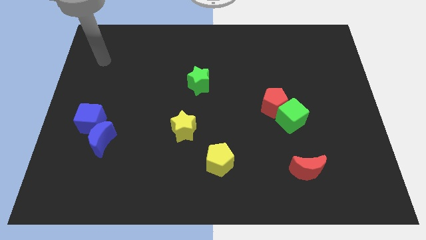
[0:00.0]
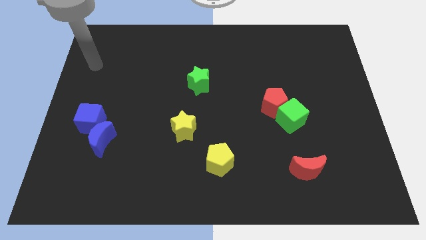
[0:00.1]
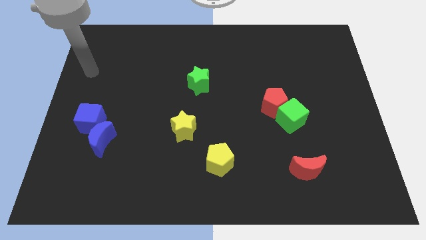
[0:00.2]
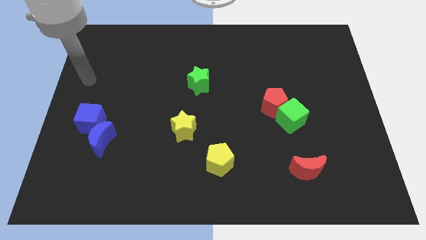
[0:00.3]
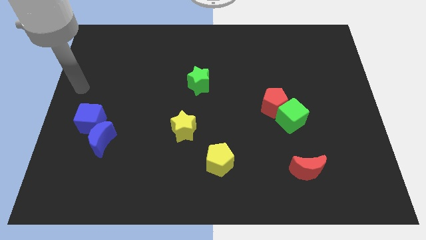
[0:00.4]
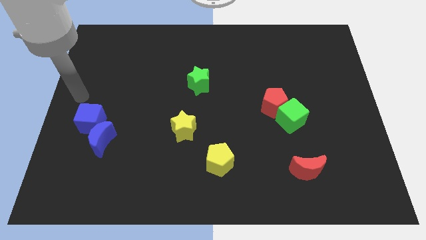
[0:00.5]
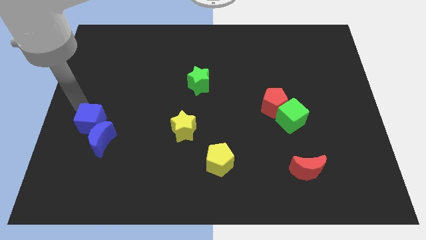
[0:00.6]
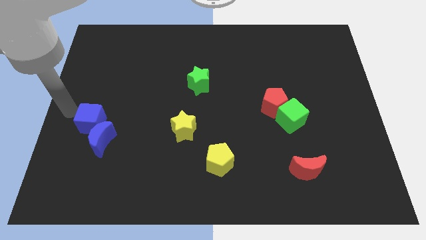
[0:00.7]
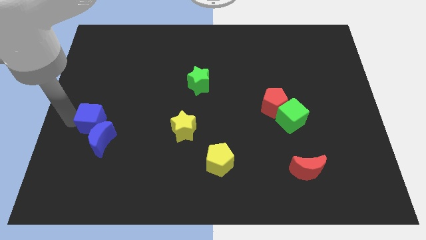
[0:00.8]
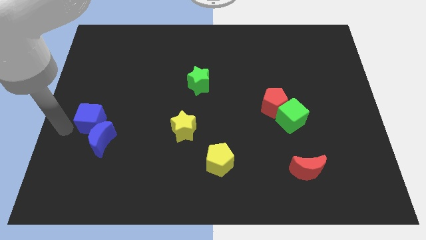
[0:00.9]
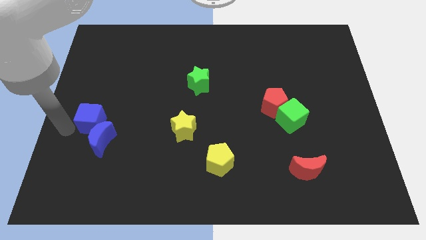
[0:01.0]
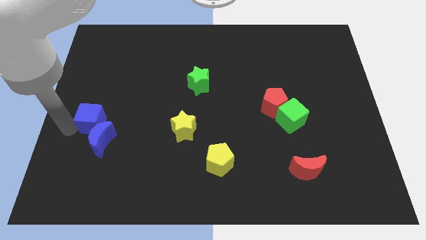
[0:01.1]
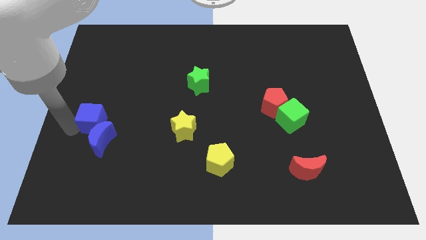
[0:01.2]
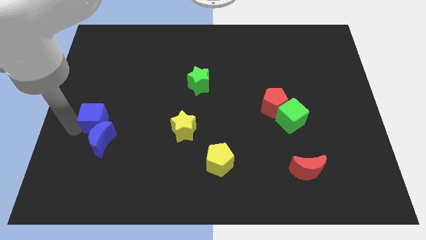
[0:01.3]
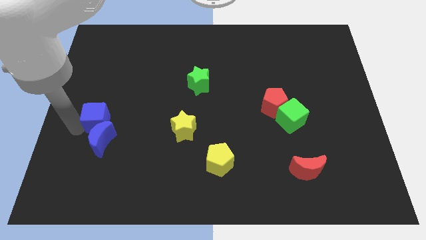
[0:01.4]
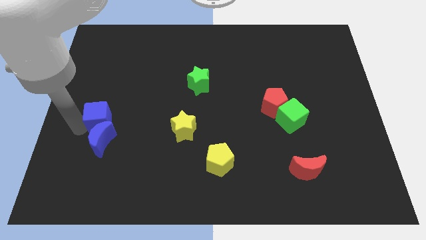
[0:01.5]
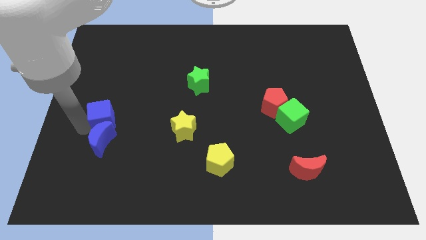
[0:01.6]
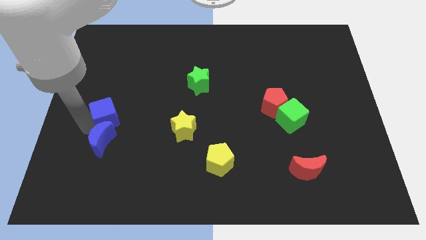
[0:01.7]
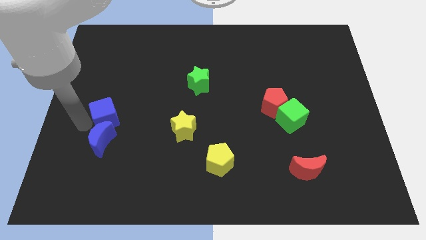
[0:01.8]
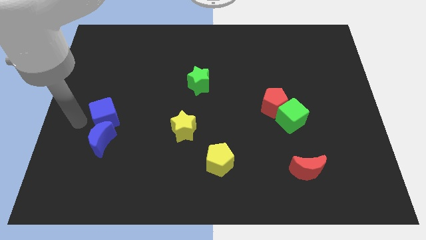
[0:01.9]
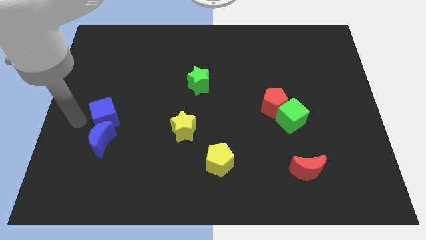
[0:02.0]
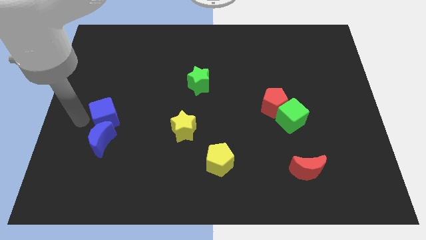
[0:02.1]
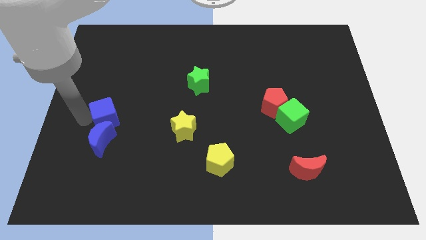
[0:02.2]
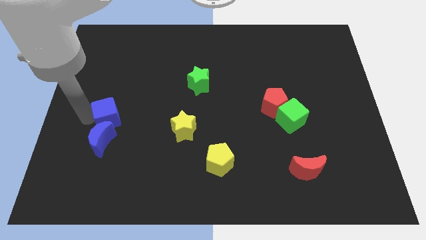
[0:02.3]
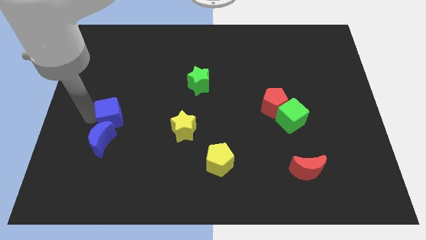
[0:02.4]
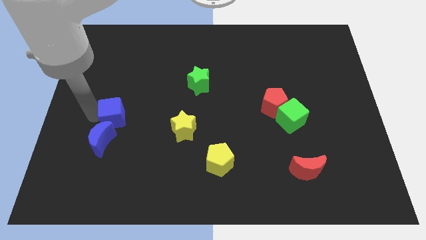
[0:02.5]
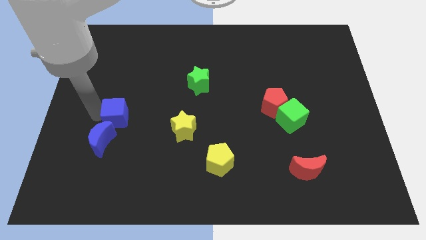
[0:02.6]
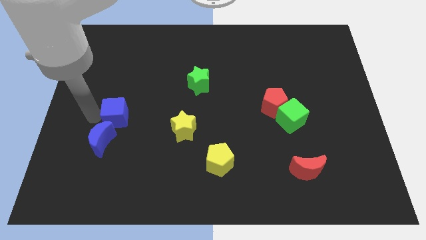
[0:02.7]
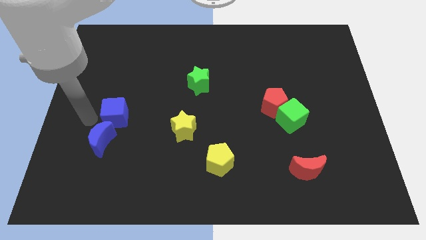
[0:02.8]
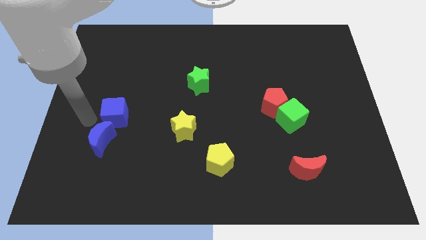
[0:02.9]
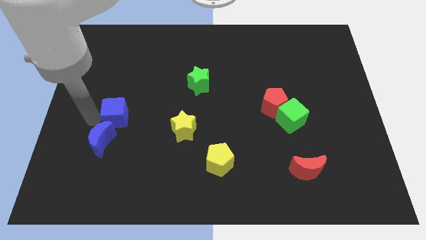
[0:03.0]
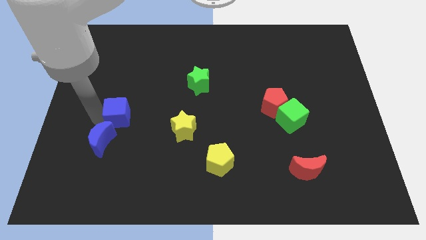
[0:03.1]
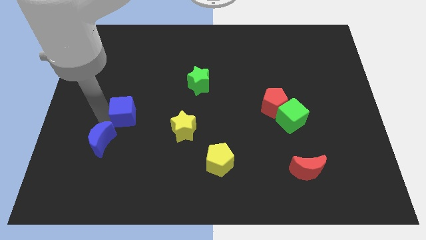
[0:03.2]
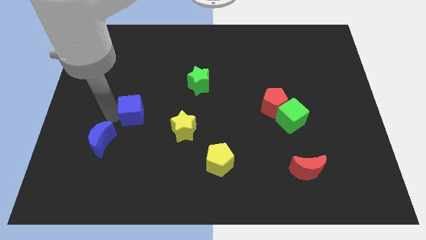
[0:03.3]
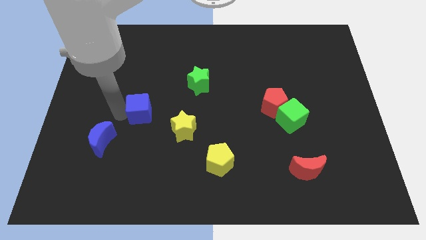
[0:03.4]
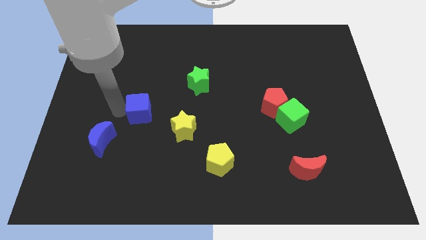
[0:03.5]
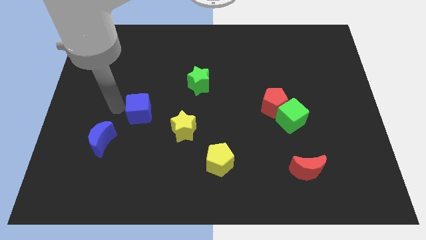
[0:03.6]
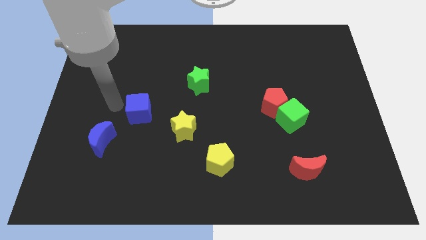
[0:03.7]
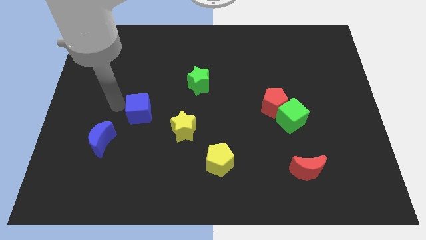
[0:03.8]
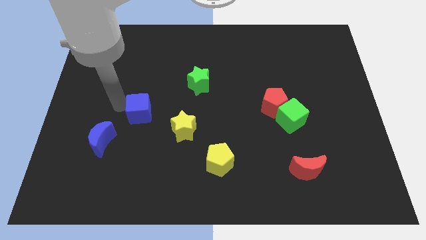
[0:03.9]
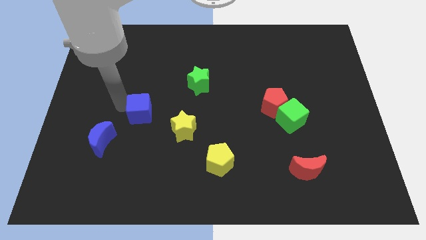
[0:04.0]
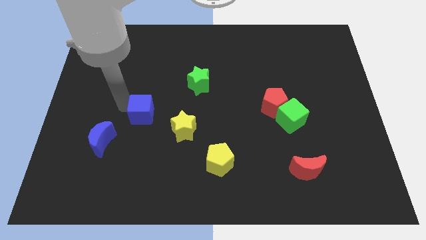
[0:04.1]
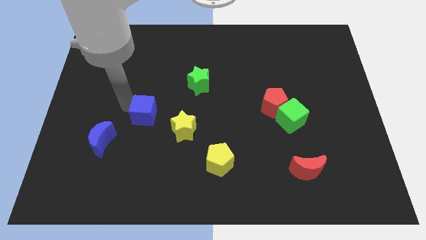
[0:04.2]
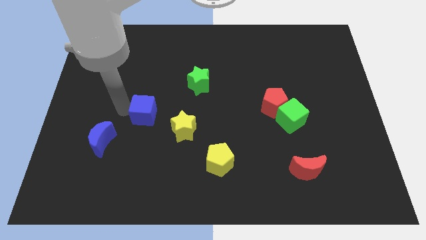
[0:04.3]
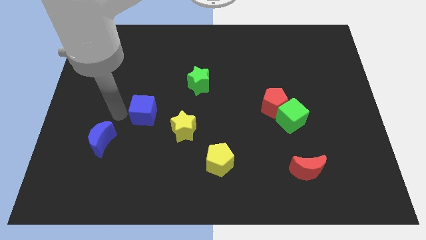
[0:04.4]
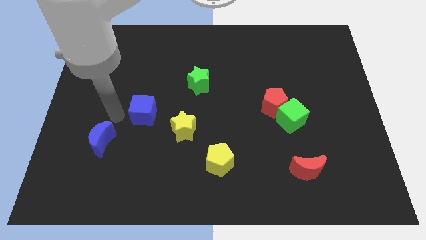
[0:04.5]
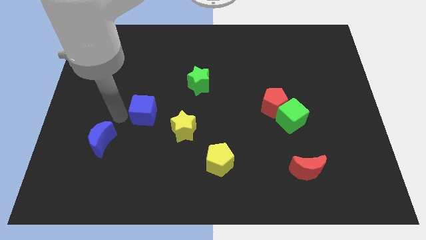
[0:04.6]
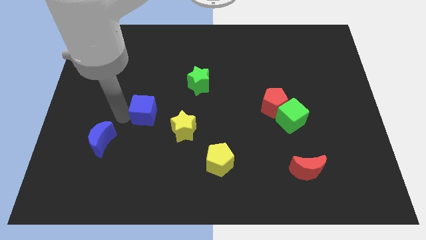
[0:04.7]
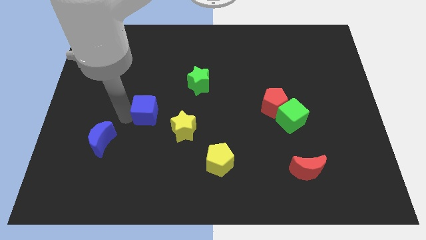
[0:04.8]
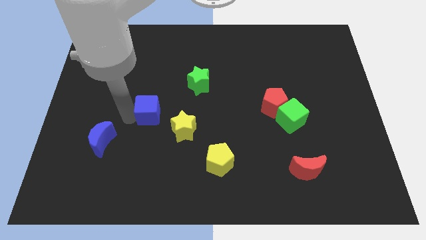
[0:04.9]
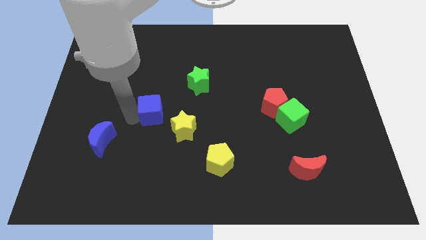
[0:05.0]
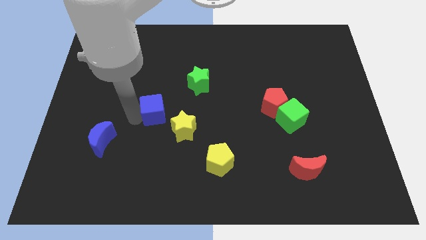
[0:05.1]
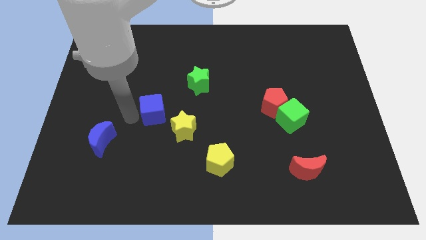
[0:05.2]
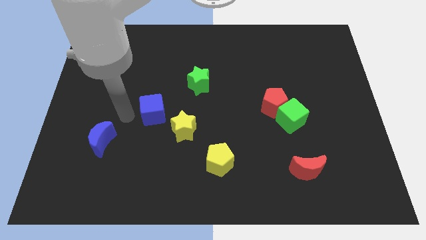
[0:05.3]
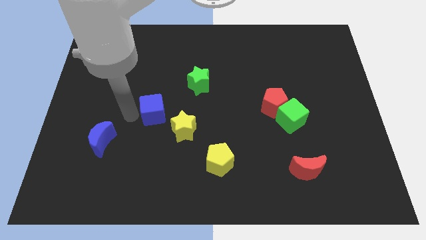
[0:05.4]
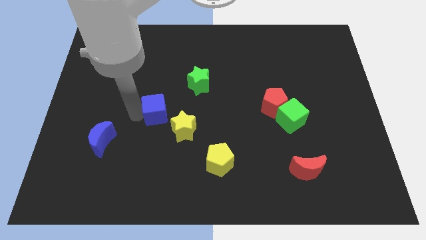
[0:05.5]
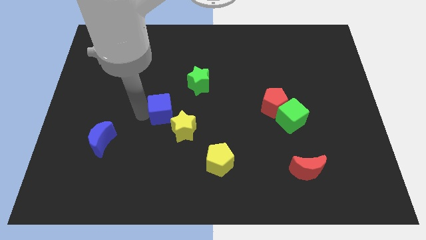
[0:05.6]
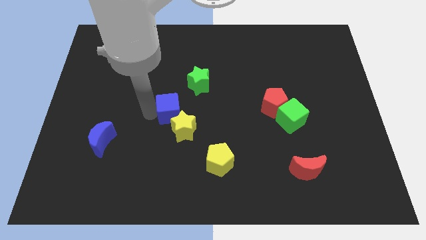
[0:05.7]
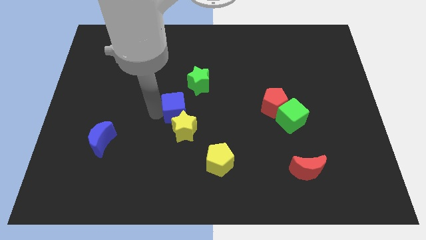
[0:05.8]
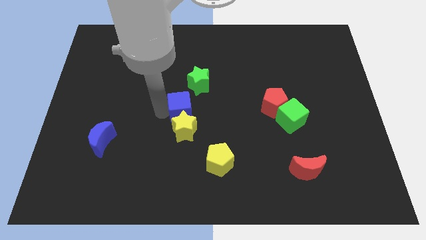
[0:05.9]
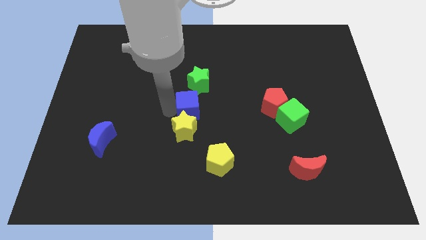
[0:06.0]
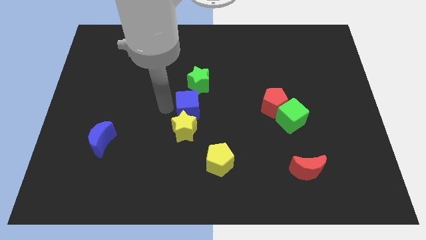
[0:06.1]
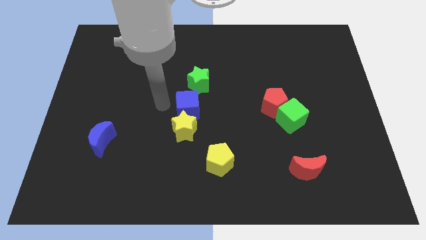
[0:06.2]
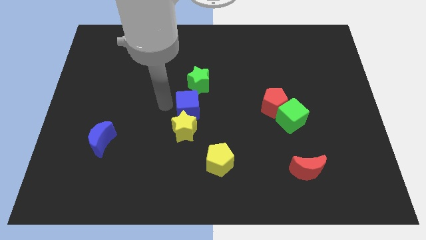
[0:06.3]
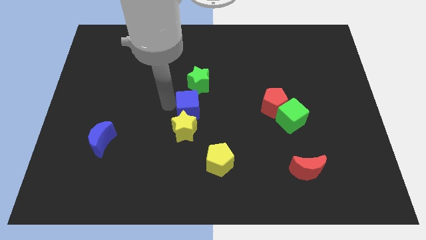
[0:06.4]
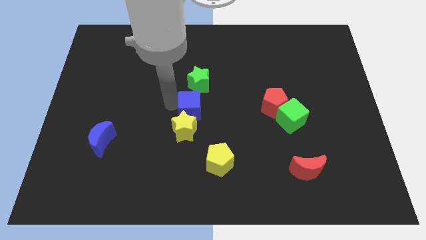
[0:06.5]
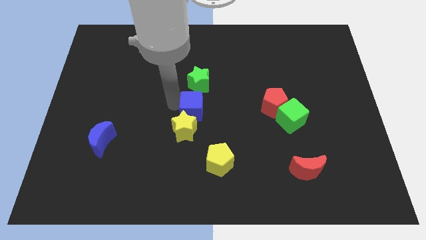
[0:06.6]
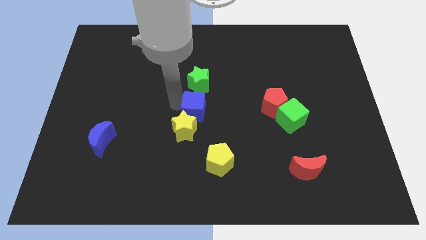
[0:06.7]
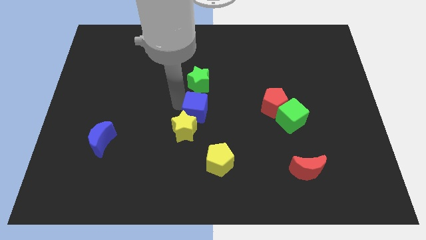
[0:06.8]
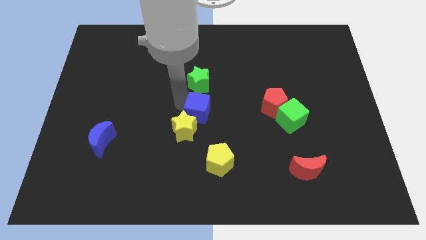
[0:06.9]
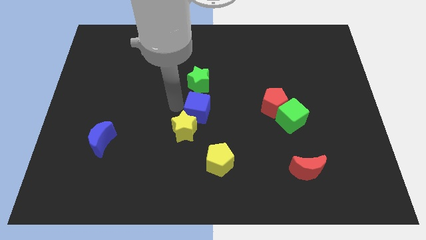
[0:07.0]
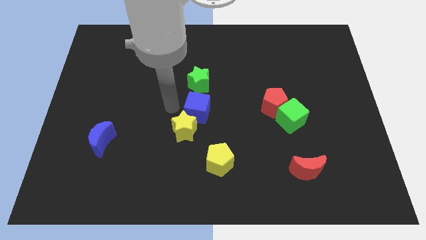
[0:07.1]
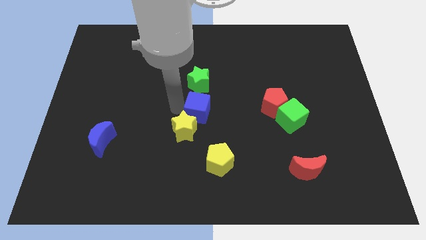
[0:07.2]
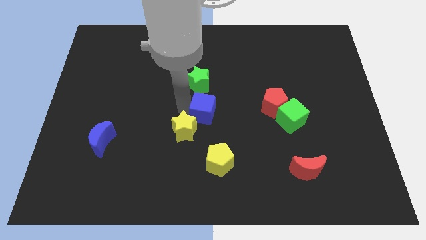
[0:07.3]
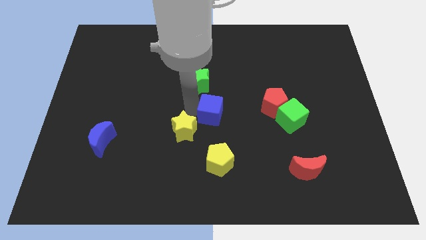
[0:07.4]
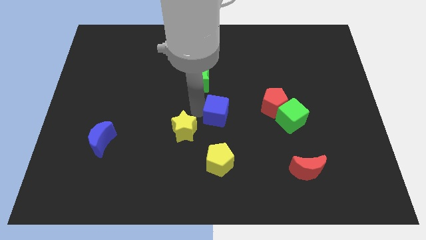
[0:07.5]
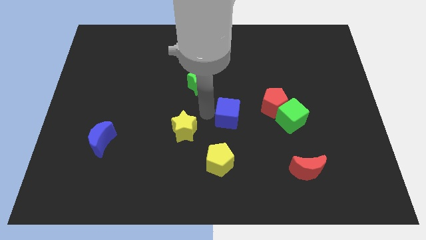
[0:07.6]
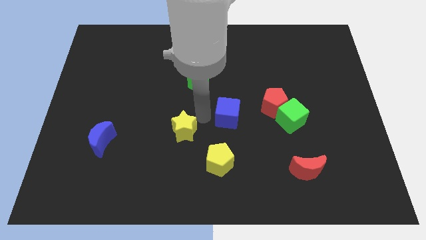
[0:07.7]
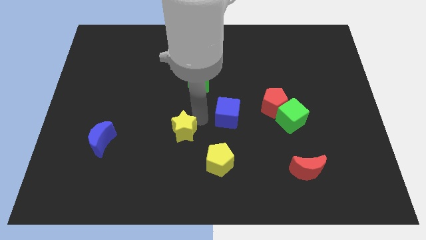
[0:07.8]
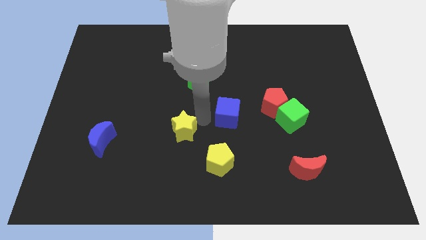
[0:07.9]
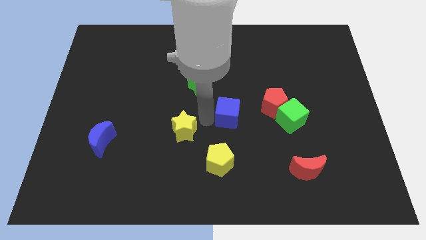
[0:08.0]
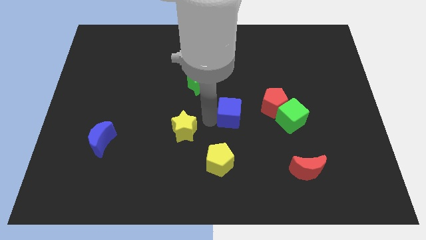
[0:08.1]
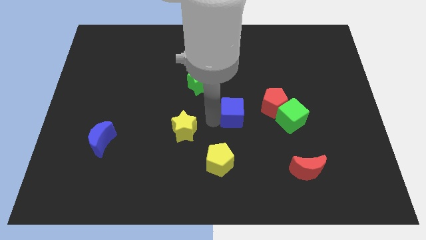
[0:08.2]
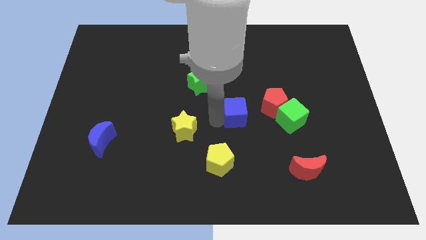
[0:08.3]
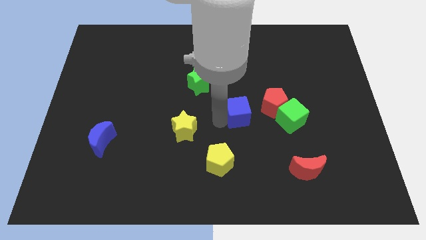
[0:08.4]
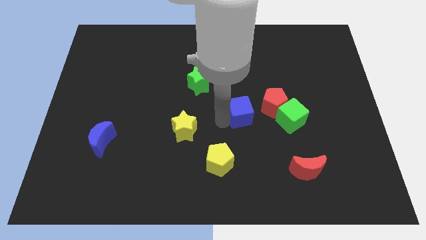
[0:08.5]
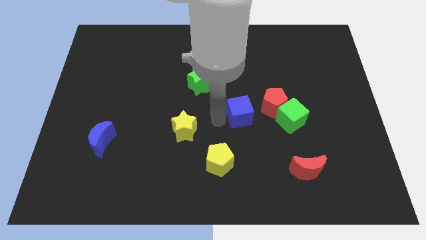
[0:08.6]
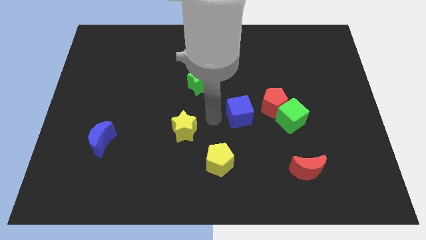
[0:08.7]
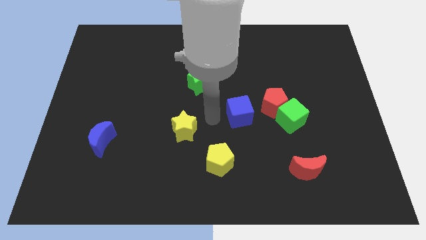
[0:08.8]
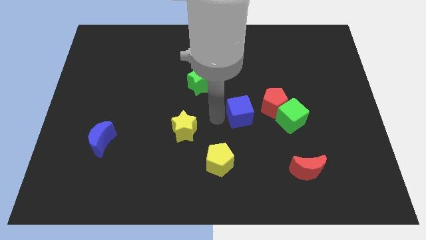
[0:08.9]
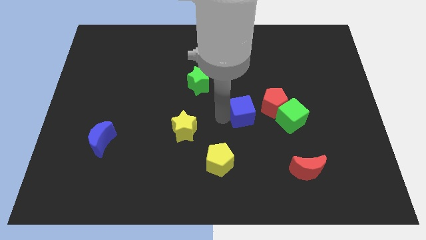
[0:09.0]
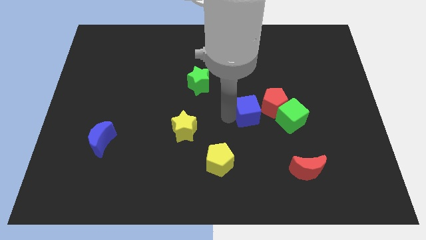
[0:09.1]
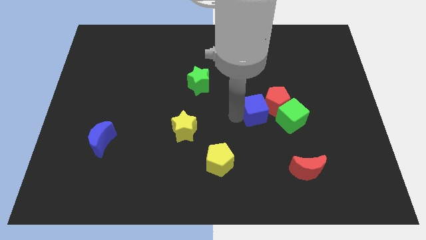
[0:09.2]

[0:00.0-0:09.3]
put the blue cube to the red pentagon
